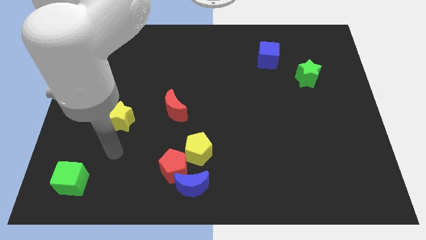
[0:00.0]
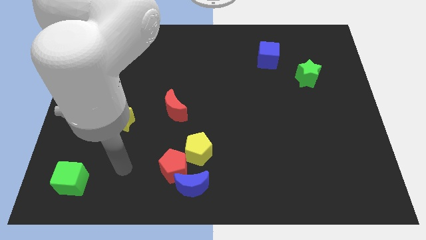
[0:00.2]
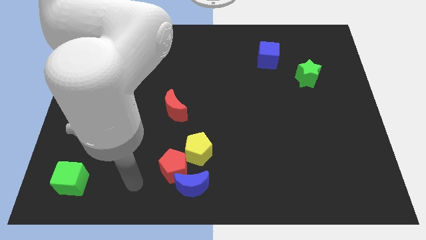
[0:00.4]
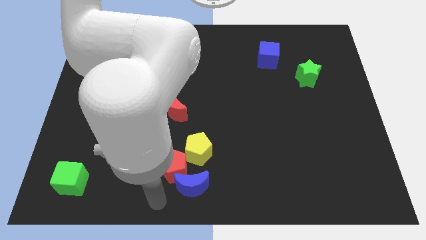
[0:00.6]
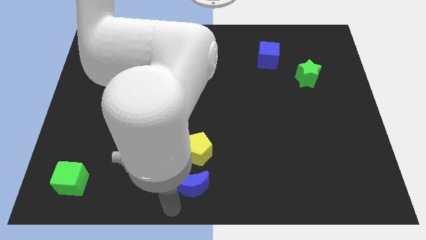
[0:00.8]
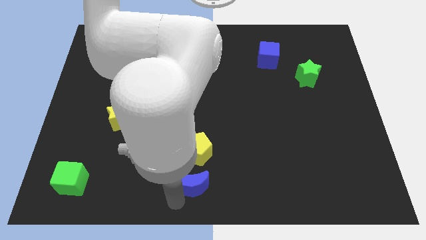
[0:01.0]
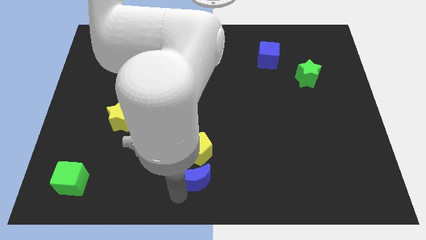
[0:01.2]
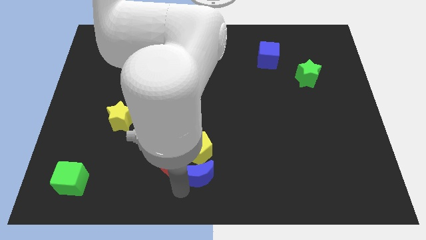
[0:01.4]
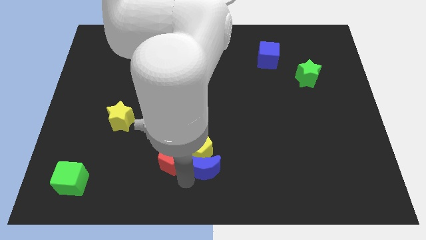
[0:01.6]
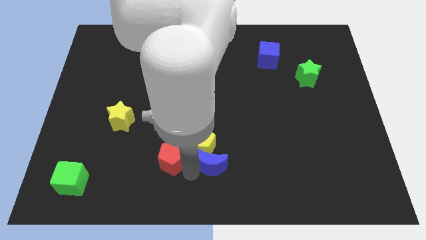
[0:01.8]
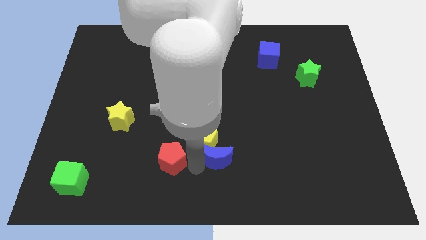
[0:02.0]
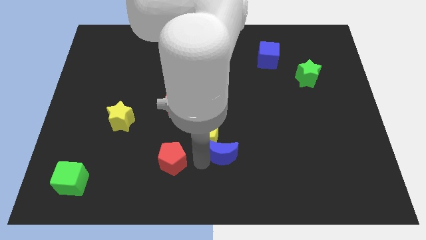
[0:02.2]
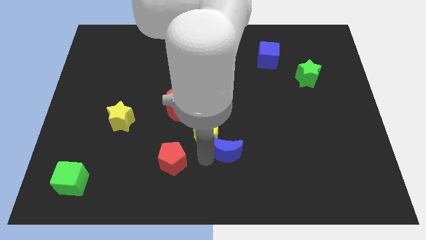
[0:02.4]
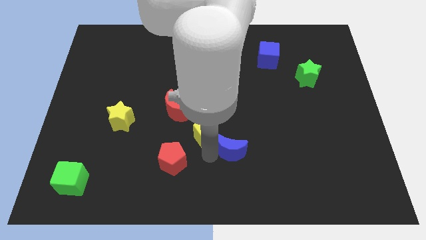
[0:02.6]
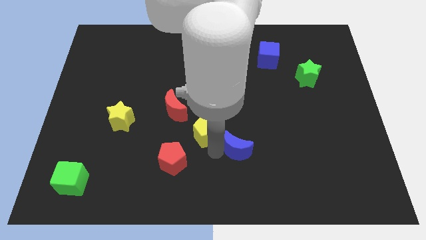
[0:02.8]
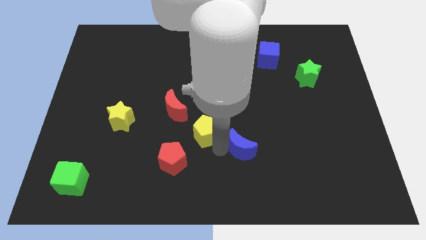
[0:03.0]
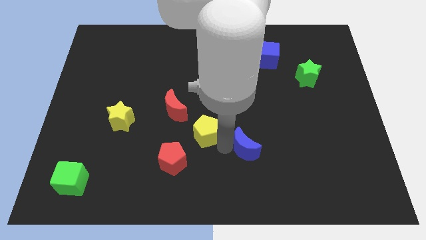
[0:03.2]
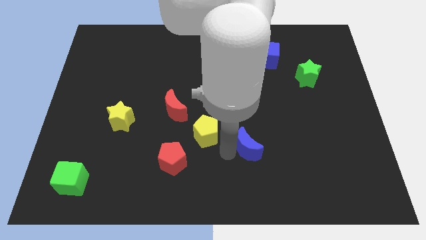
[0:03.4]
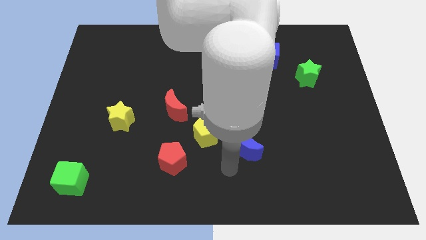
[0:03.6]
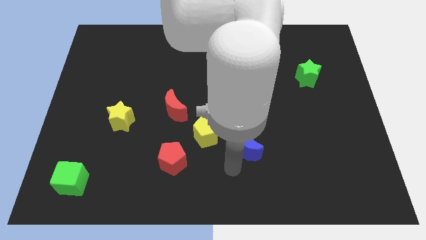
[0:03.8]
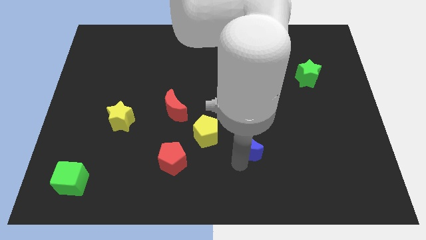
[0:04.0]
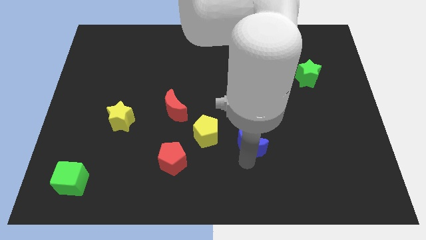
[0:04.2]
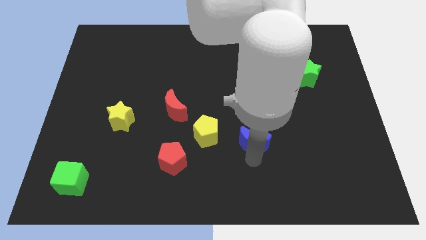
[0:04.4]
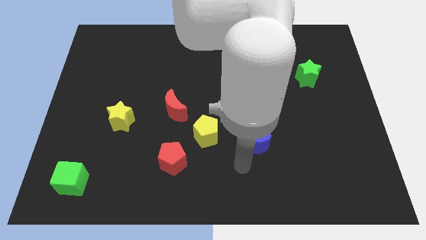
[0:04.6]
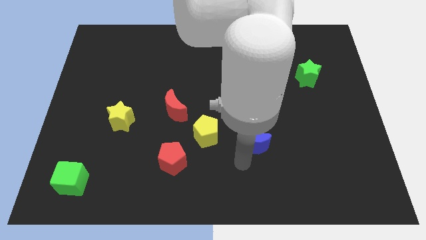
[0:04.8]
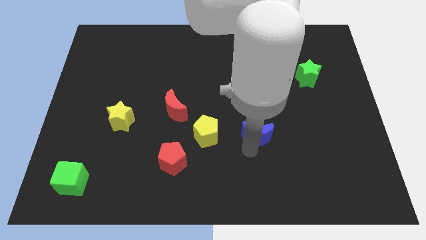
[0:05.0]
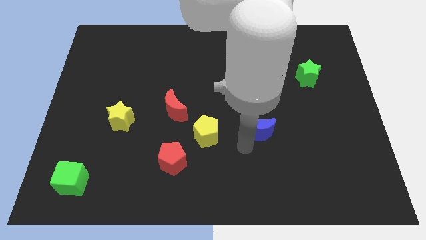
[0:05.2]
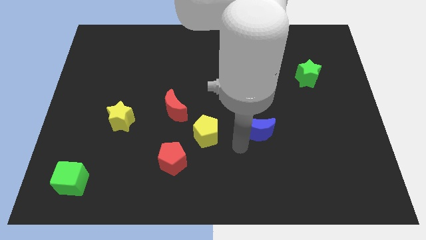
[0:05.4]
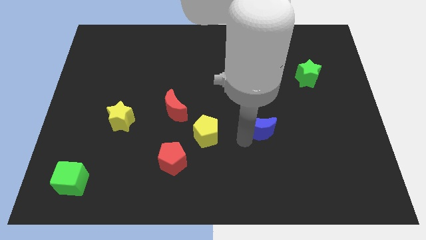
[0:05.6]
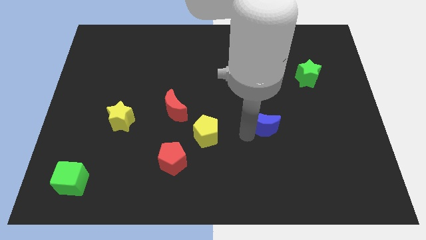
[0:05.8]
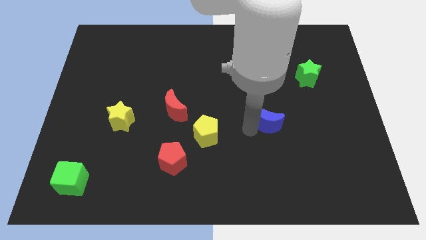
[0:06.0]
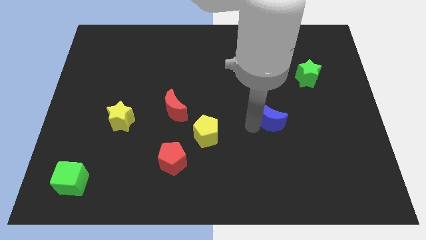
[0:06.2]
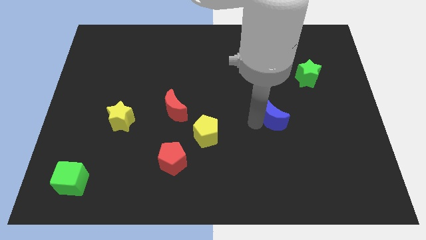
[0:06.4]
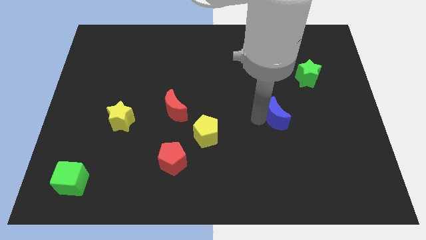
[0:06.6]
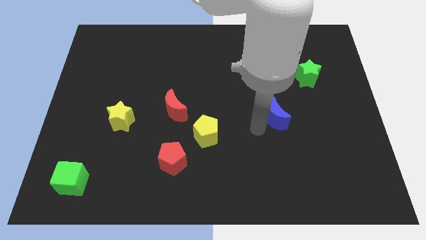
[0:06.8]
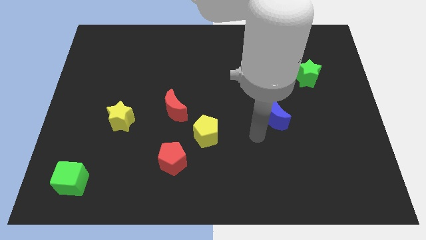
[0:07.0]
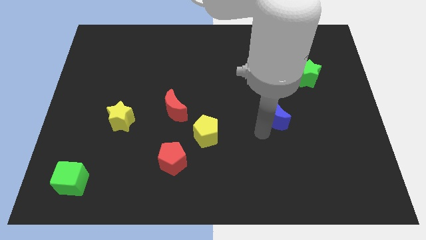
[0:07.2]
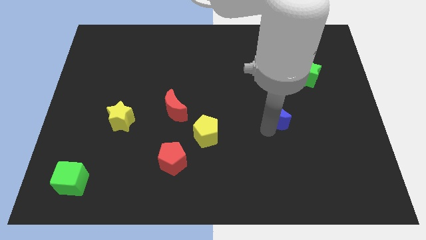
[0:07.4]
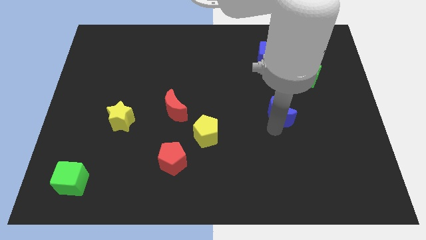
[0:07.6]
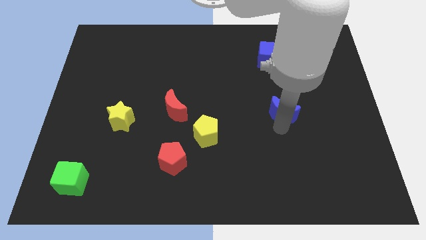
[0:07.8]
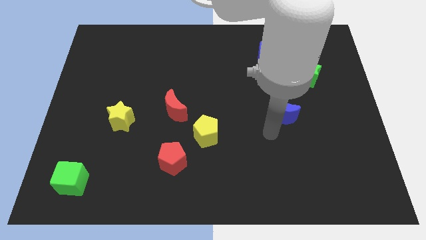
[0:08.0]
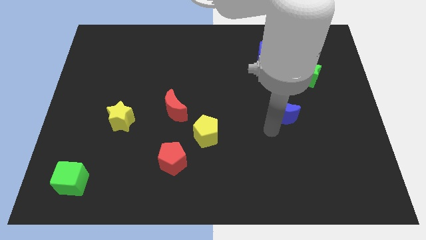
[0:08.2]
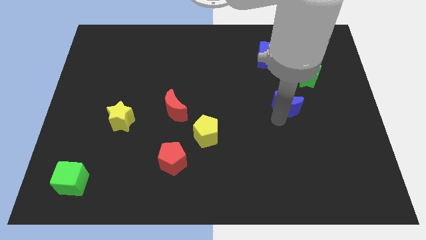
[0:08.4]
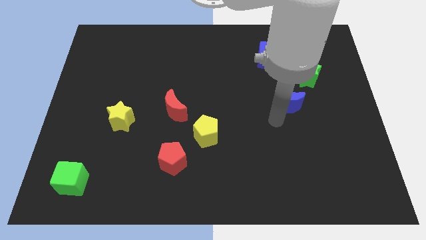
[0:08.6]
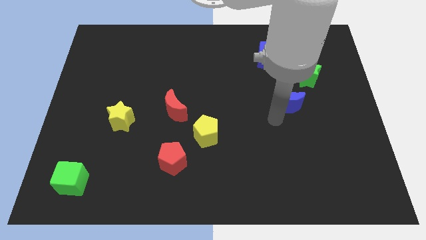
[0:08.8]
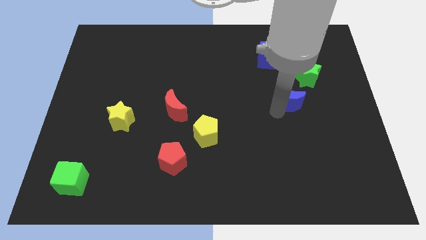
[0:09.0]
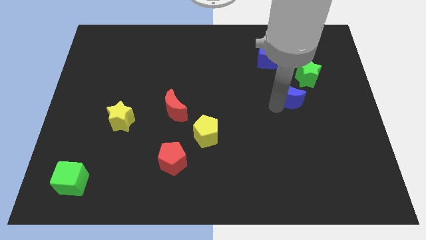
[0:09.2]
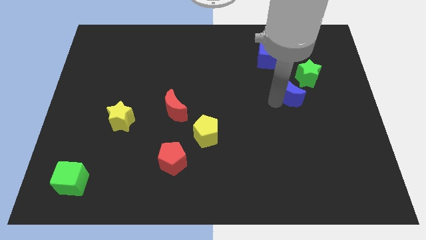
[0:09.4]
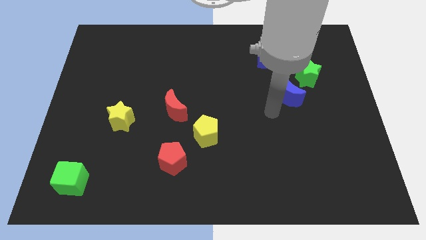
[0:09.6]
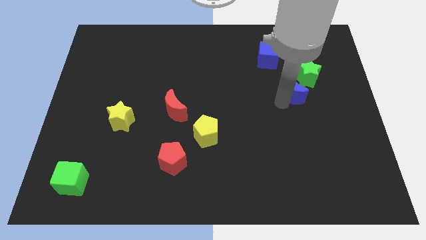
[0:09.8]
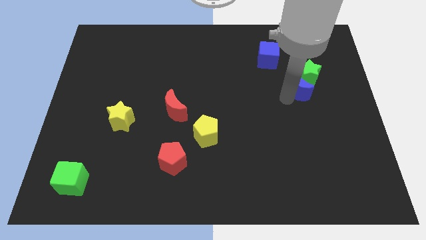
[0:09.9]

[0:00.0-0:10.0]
push the blue moon towards the green star

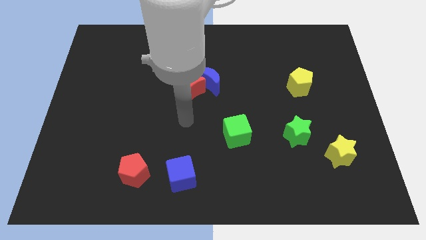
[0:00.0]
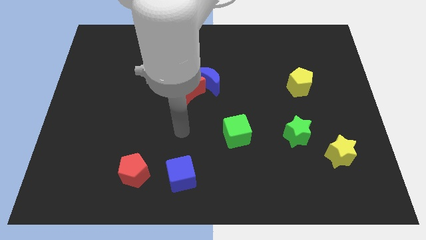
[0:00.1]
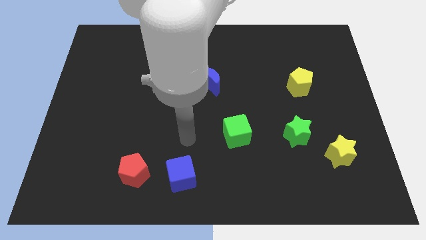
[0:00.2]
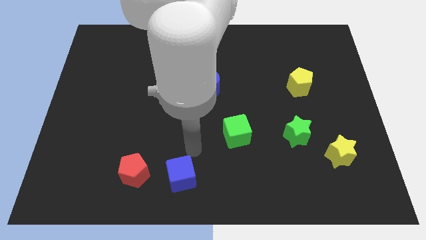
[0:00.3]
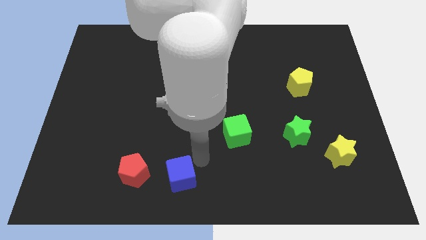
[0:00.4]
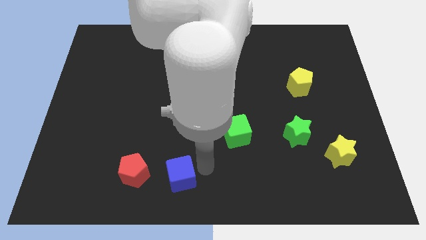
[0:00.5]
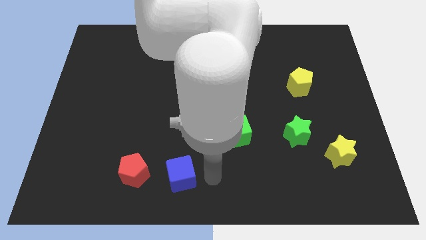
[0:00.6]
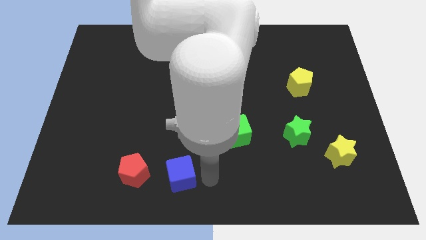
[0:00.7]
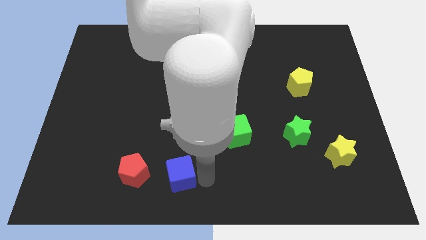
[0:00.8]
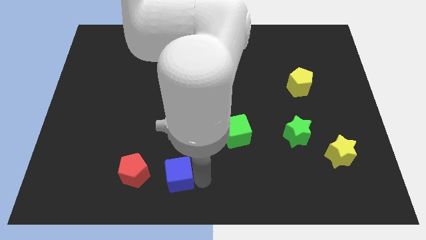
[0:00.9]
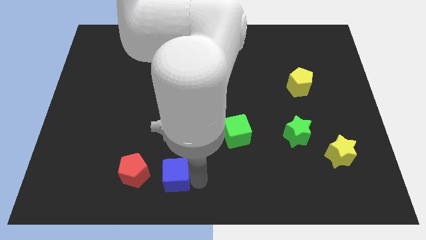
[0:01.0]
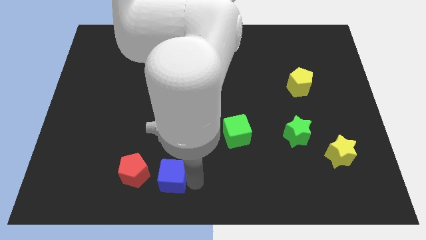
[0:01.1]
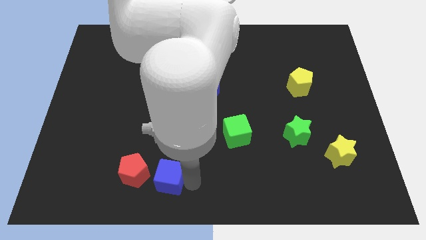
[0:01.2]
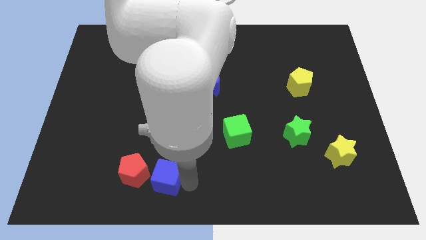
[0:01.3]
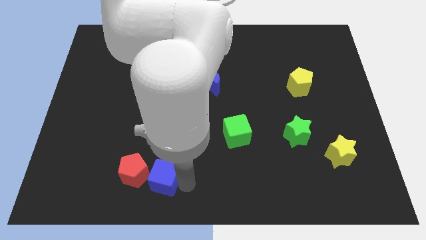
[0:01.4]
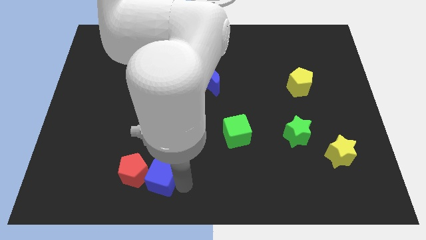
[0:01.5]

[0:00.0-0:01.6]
push the blue cube to the red pentagon
